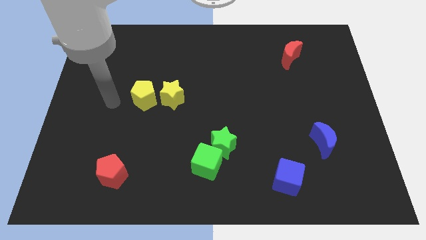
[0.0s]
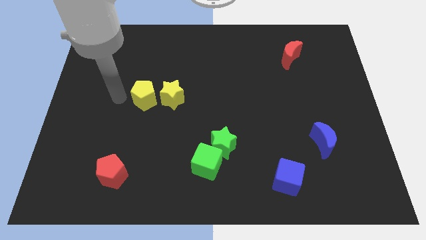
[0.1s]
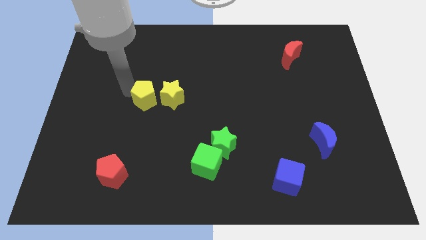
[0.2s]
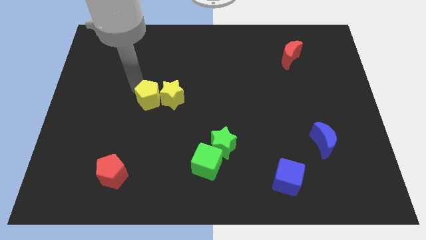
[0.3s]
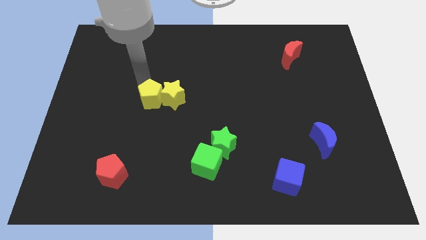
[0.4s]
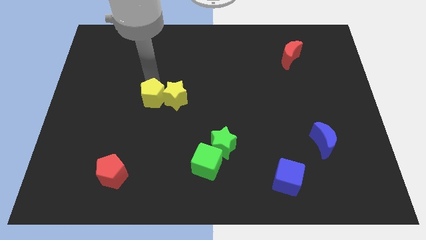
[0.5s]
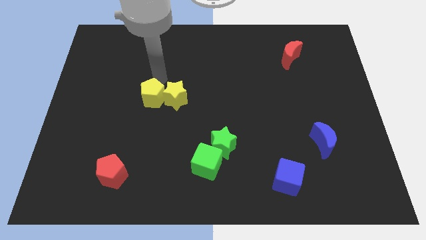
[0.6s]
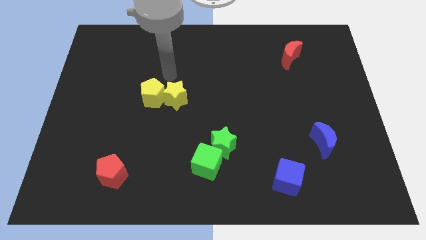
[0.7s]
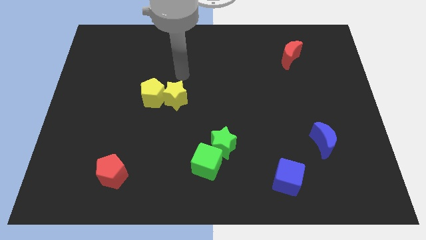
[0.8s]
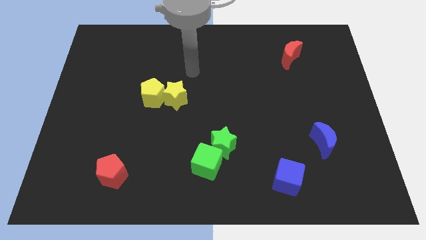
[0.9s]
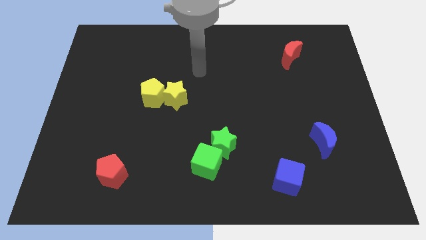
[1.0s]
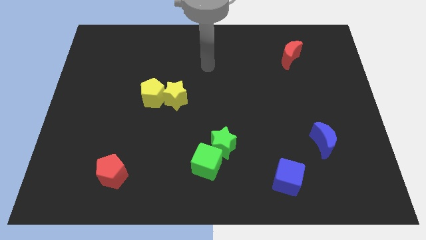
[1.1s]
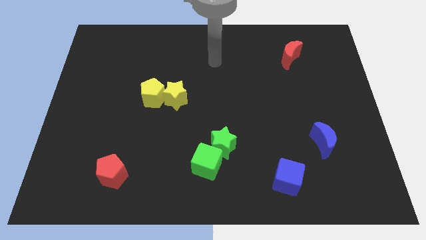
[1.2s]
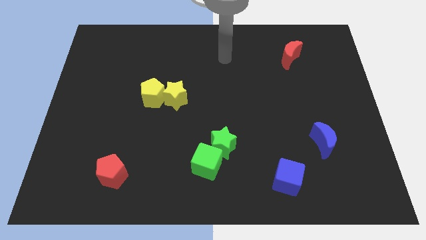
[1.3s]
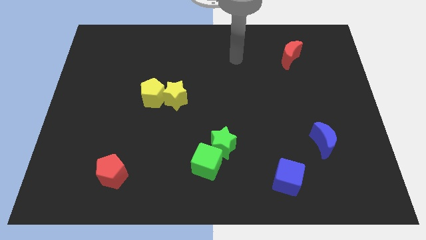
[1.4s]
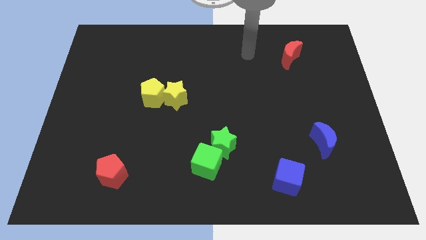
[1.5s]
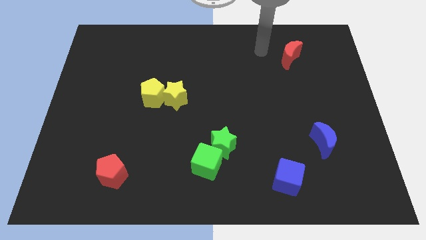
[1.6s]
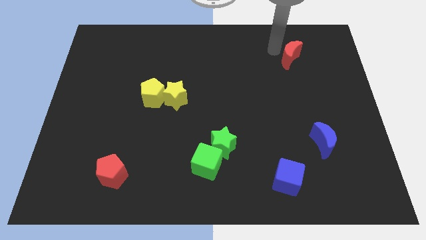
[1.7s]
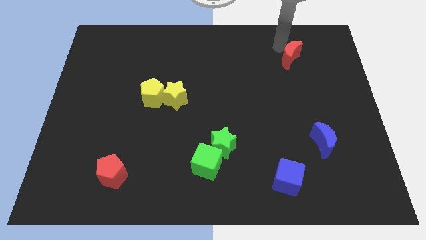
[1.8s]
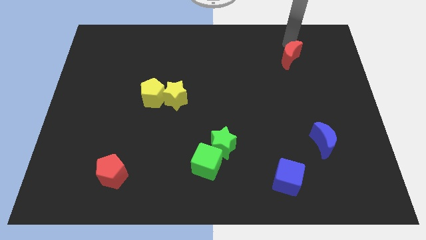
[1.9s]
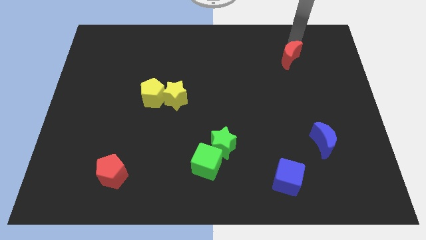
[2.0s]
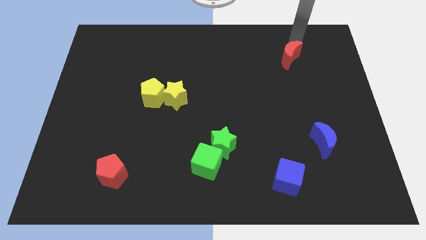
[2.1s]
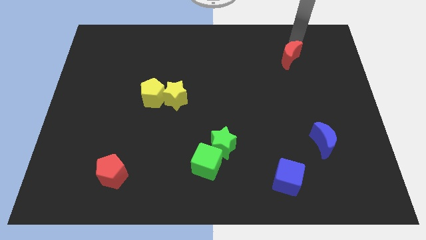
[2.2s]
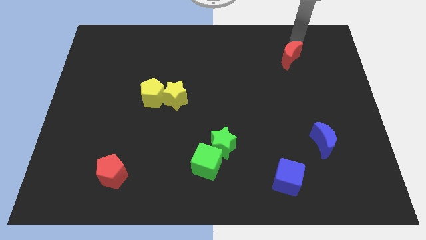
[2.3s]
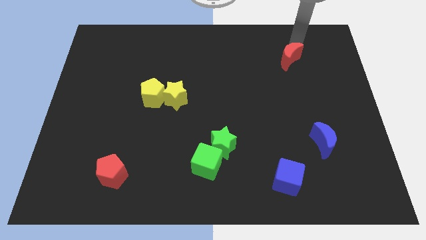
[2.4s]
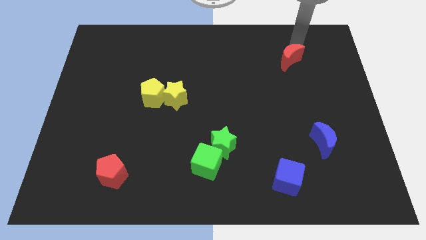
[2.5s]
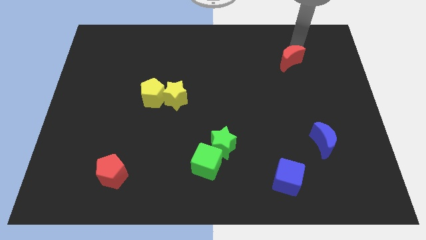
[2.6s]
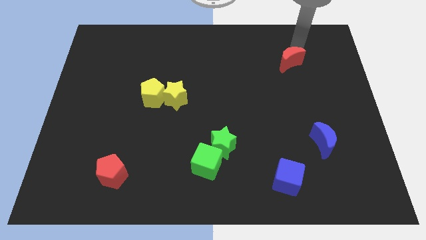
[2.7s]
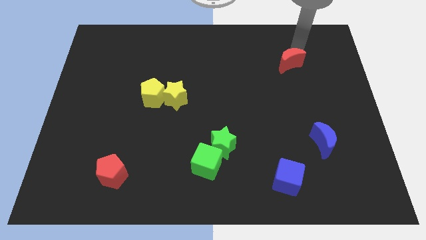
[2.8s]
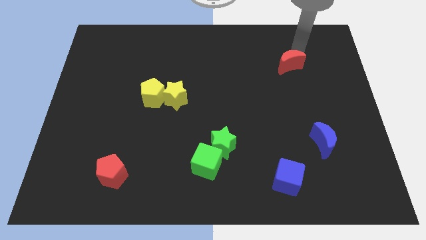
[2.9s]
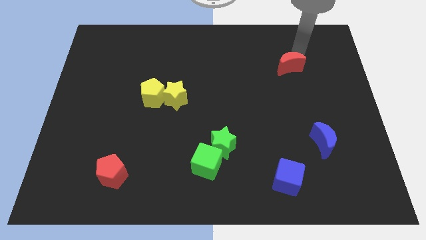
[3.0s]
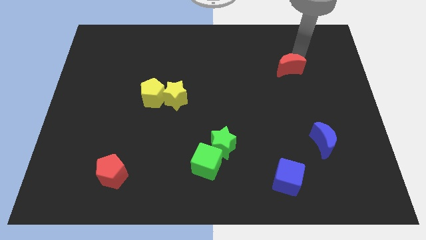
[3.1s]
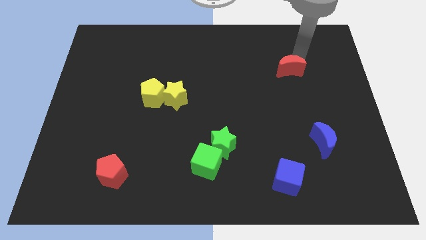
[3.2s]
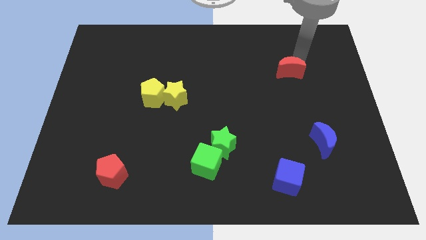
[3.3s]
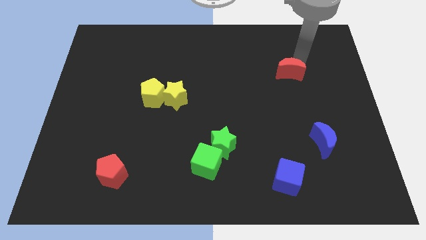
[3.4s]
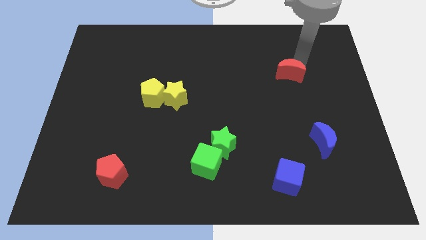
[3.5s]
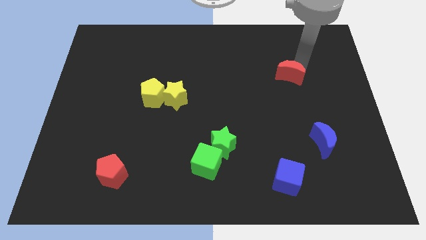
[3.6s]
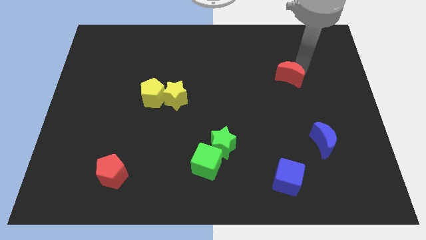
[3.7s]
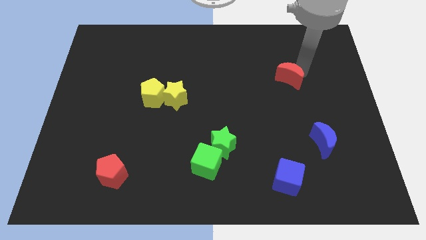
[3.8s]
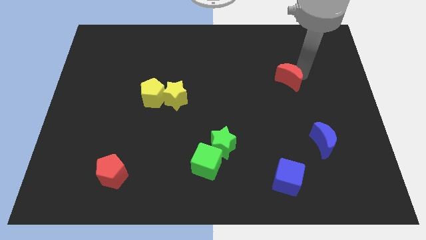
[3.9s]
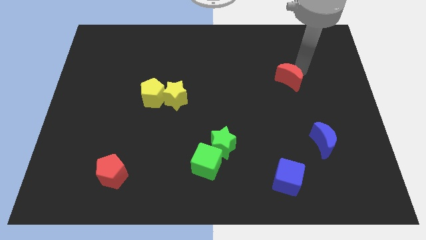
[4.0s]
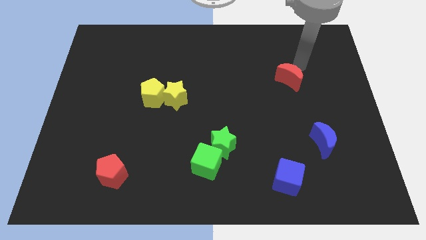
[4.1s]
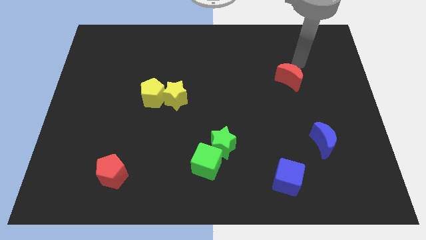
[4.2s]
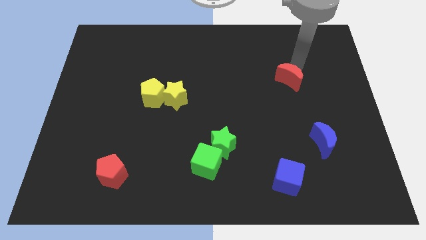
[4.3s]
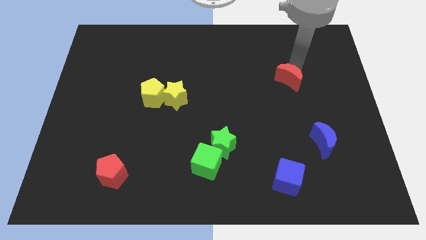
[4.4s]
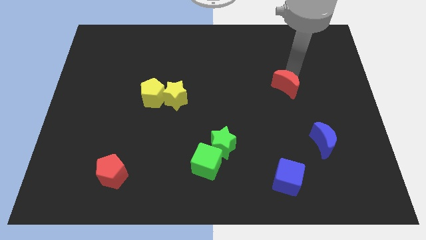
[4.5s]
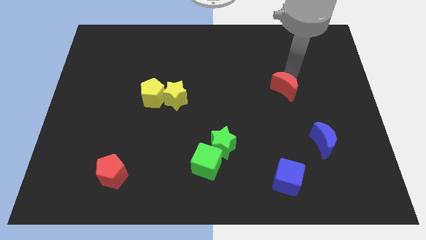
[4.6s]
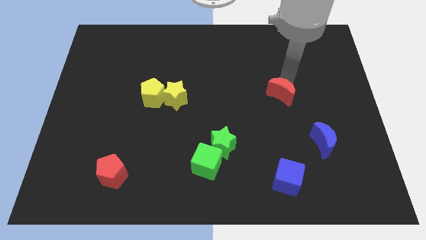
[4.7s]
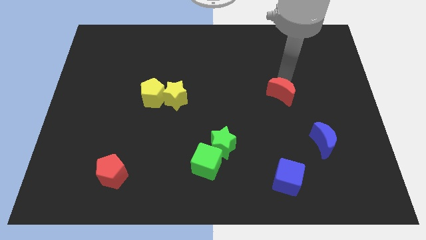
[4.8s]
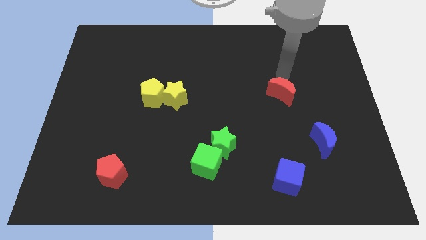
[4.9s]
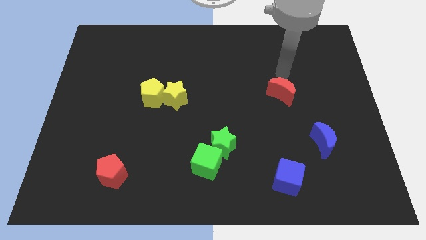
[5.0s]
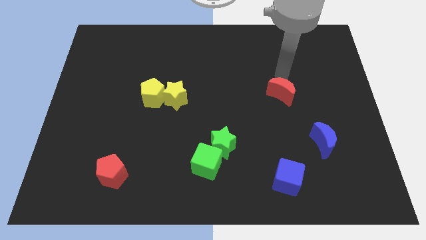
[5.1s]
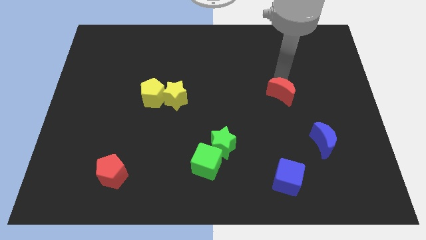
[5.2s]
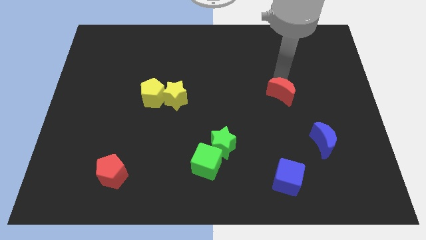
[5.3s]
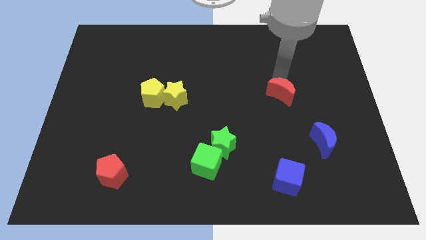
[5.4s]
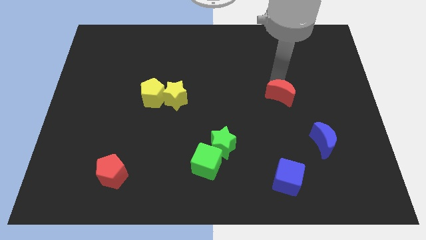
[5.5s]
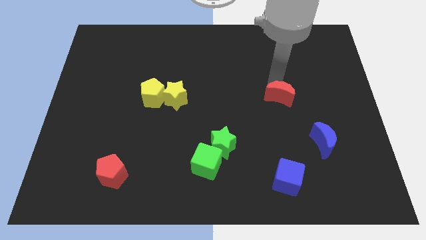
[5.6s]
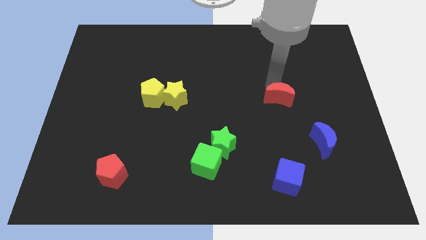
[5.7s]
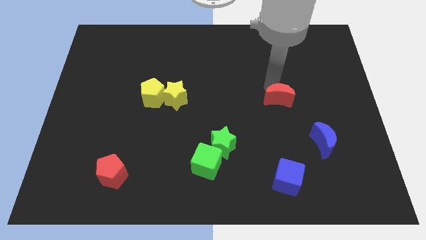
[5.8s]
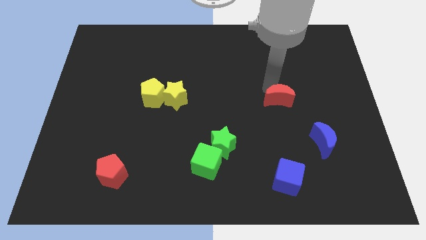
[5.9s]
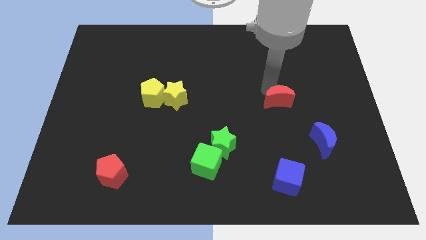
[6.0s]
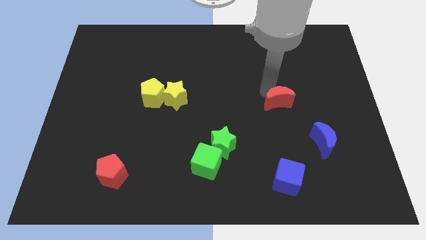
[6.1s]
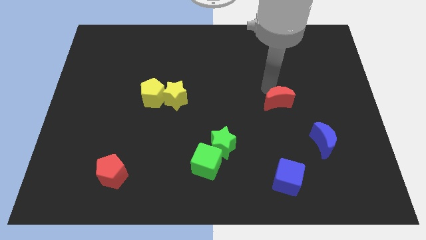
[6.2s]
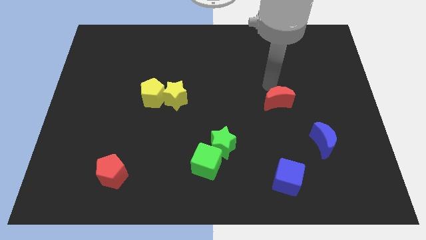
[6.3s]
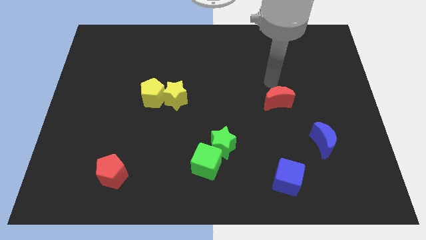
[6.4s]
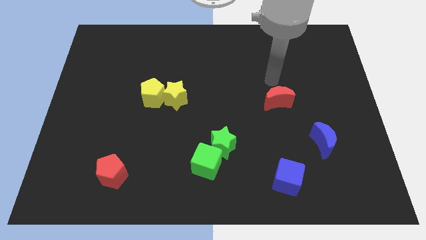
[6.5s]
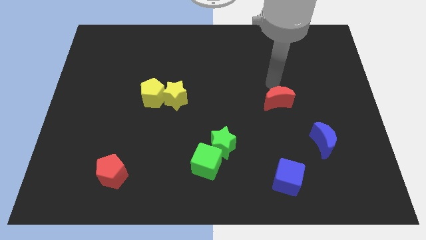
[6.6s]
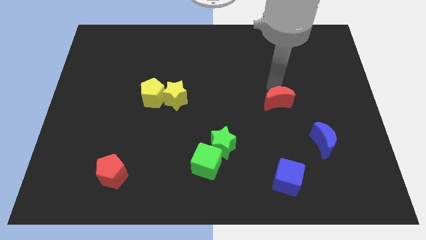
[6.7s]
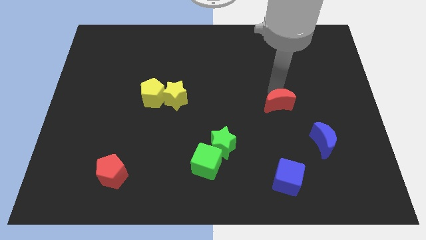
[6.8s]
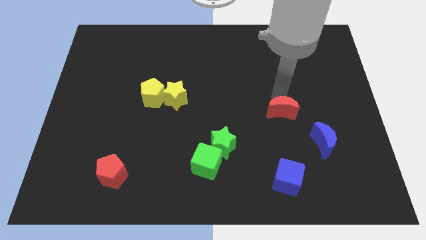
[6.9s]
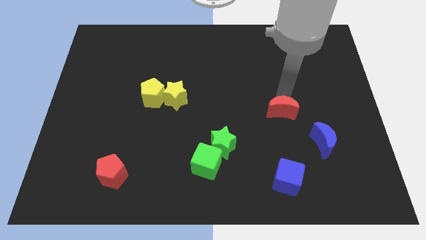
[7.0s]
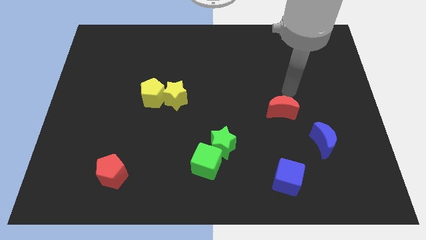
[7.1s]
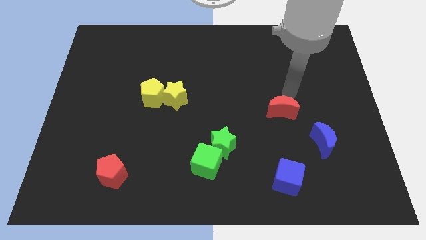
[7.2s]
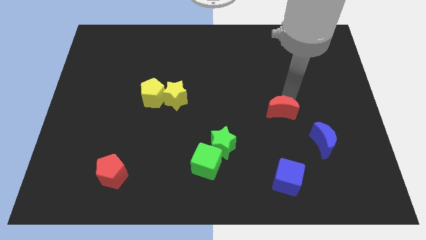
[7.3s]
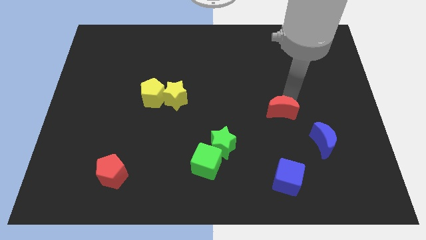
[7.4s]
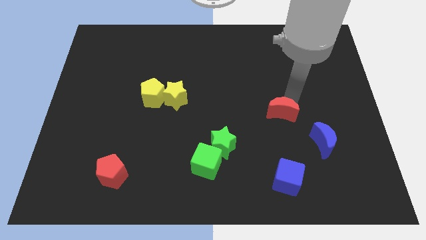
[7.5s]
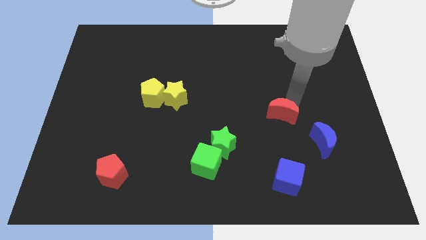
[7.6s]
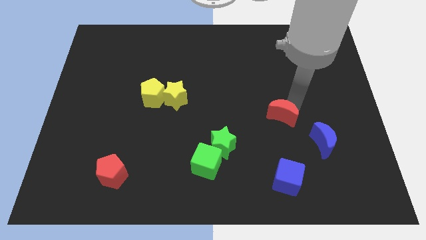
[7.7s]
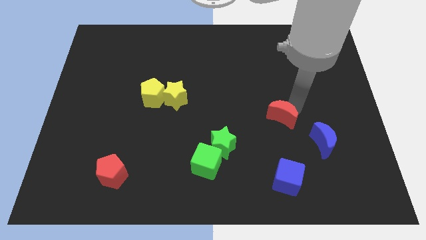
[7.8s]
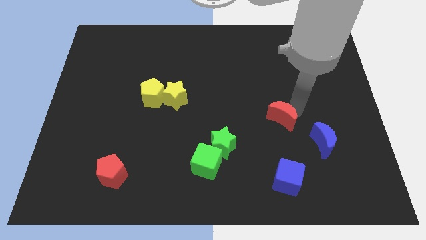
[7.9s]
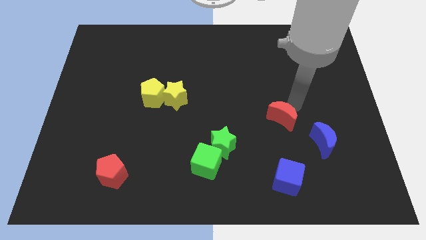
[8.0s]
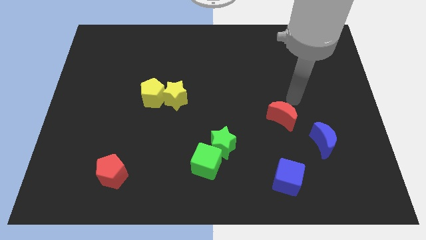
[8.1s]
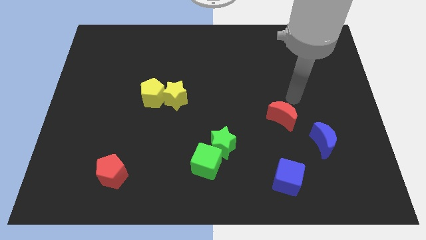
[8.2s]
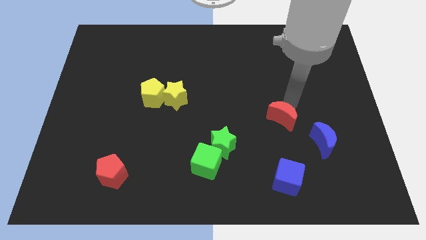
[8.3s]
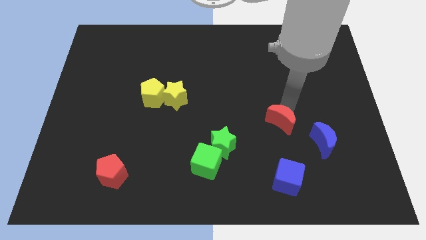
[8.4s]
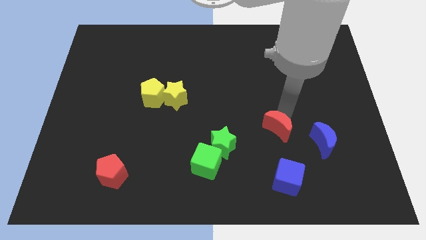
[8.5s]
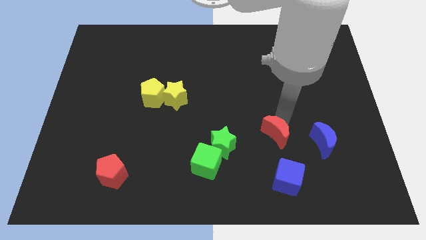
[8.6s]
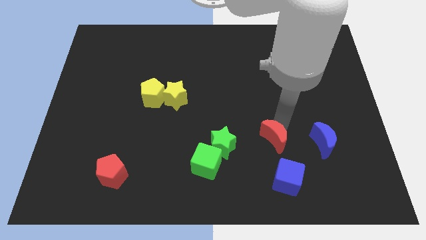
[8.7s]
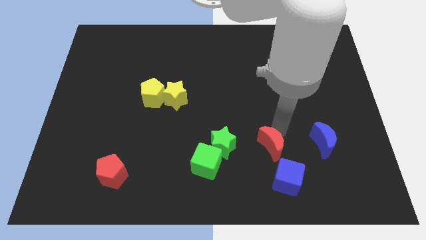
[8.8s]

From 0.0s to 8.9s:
move the red moon to the top left side of the blue cube
